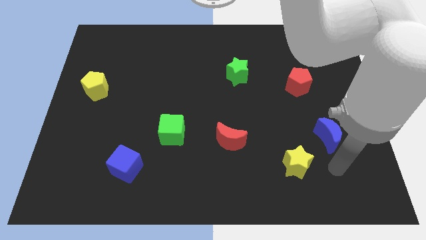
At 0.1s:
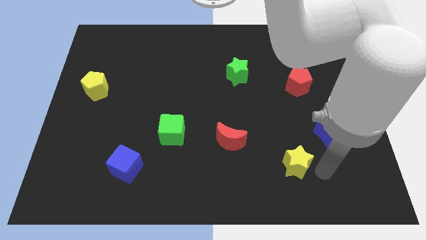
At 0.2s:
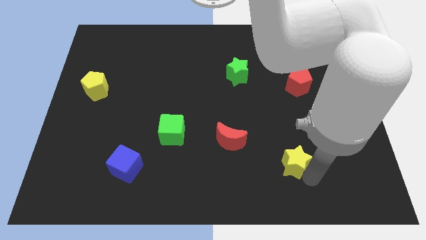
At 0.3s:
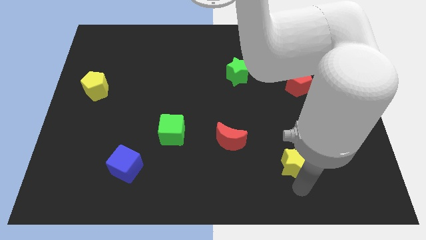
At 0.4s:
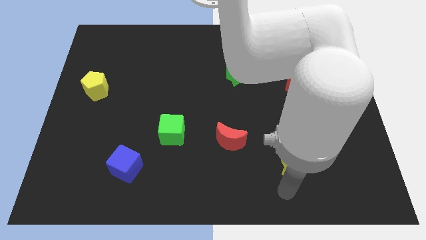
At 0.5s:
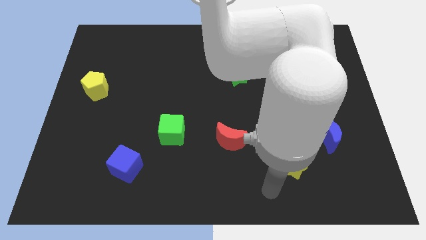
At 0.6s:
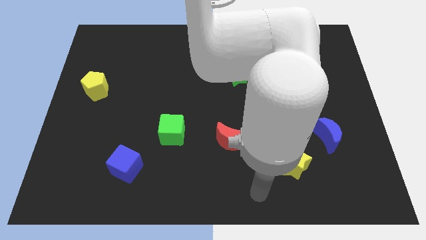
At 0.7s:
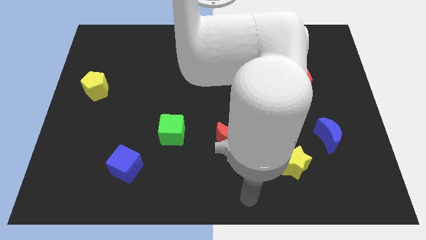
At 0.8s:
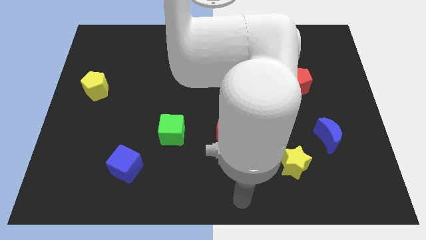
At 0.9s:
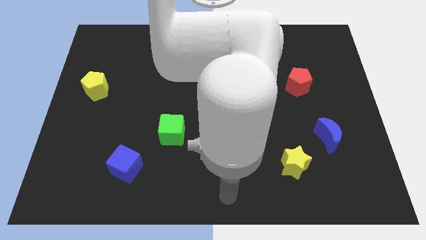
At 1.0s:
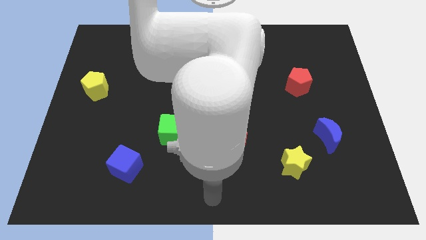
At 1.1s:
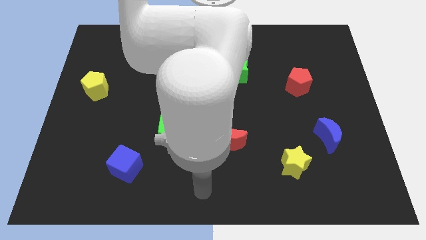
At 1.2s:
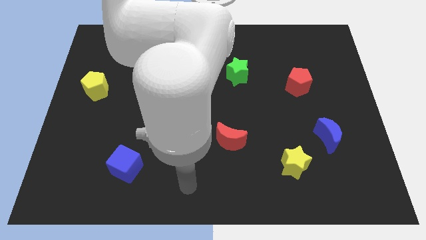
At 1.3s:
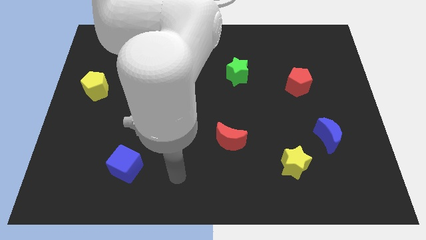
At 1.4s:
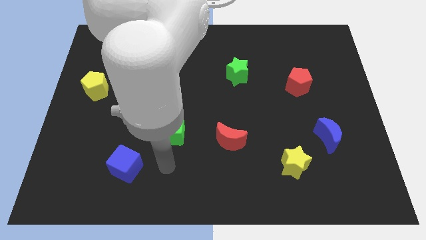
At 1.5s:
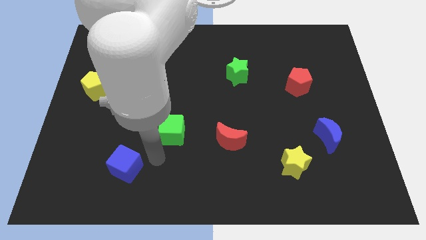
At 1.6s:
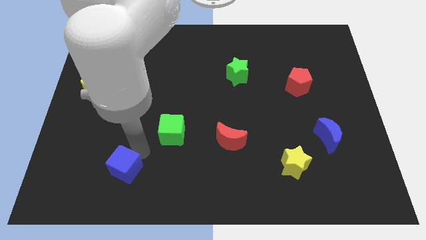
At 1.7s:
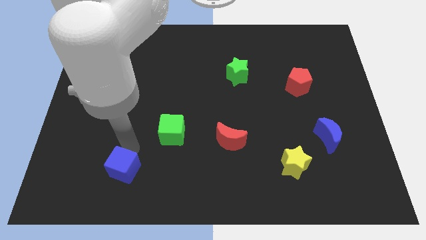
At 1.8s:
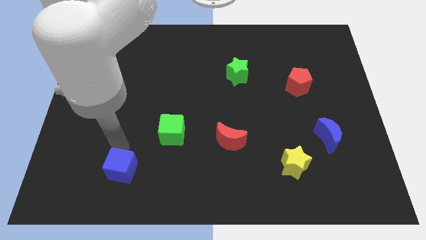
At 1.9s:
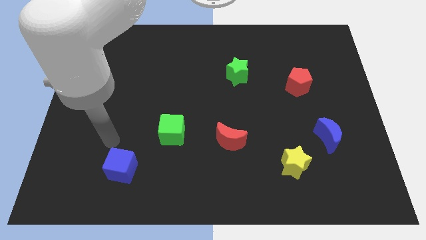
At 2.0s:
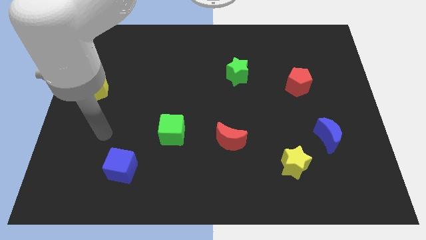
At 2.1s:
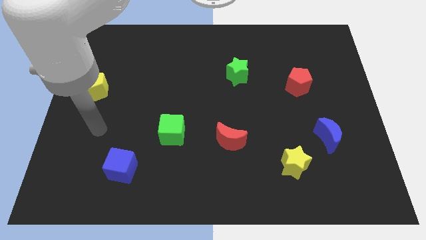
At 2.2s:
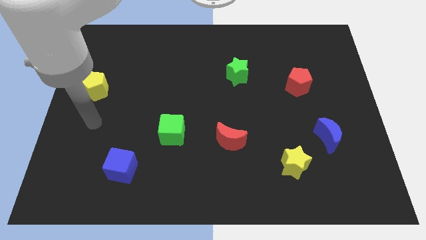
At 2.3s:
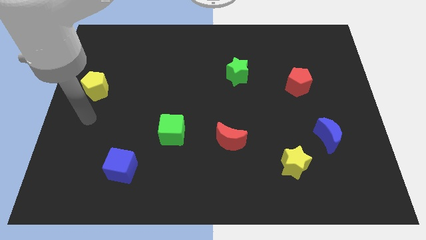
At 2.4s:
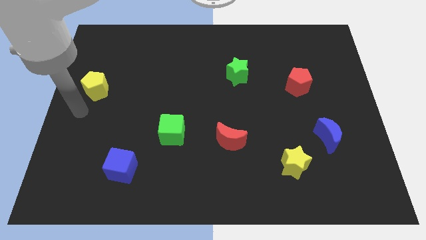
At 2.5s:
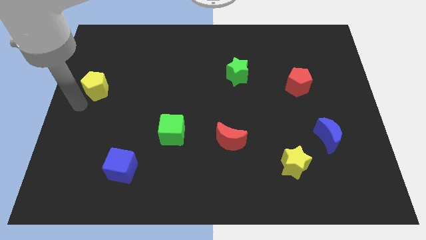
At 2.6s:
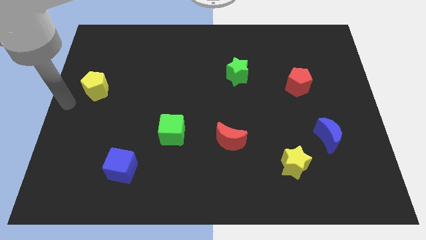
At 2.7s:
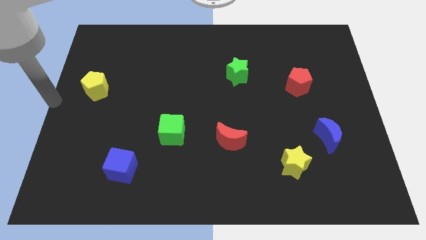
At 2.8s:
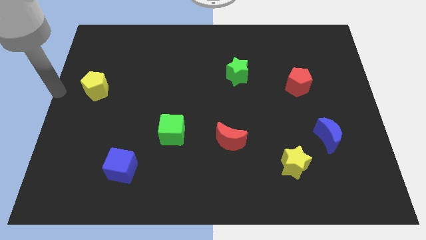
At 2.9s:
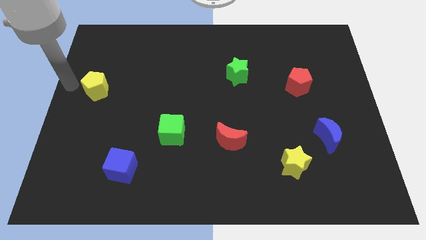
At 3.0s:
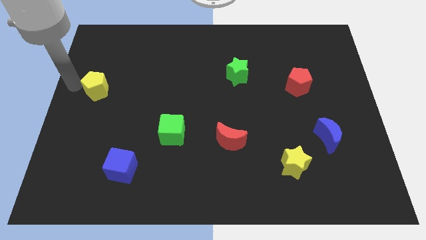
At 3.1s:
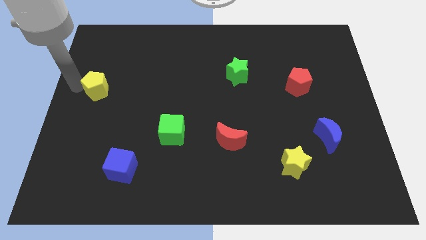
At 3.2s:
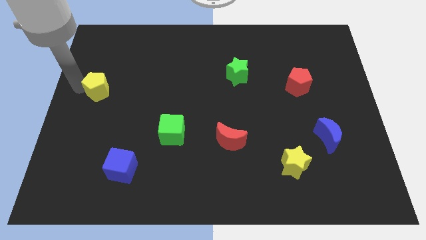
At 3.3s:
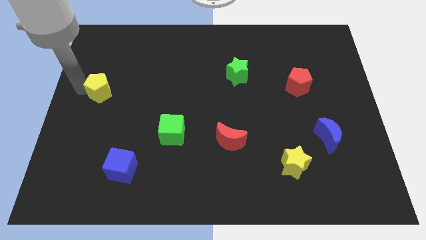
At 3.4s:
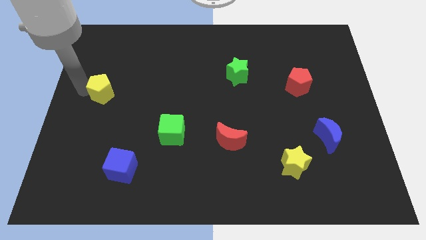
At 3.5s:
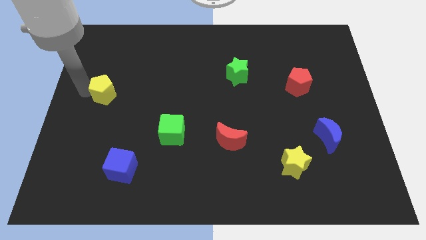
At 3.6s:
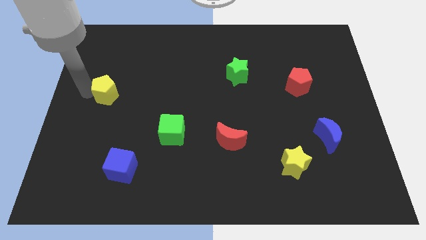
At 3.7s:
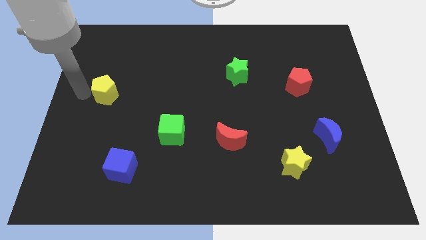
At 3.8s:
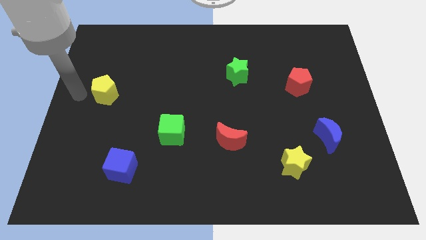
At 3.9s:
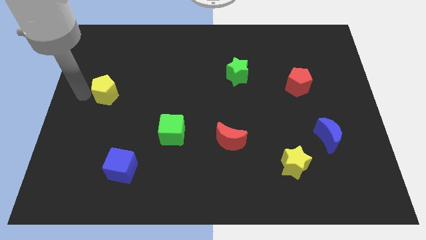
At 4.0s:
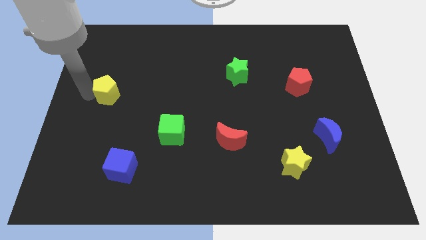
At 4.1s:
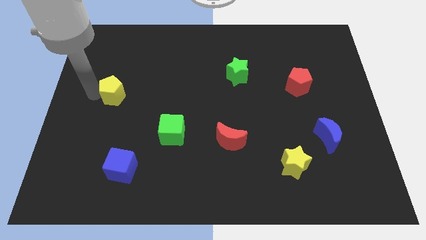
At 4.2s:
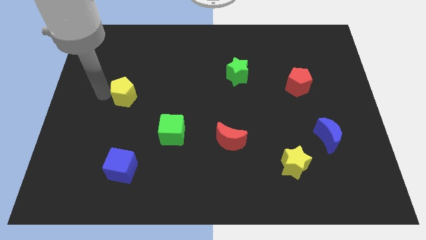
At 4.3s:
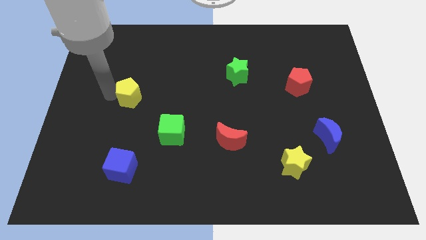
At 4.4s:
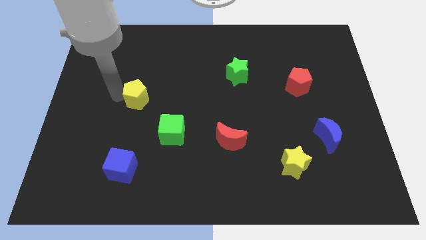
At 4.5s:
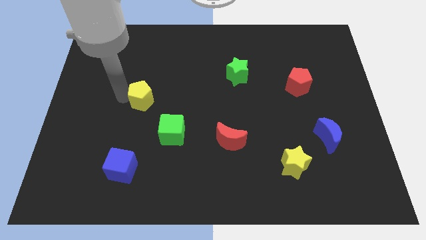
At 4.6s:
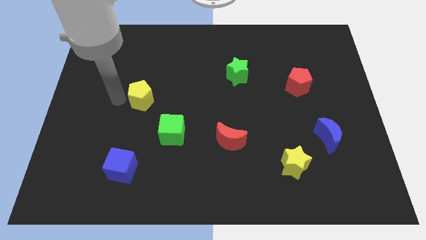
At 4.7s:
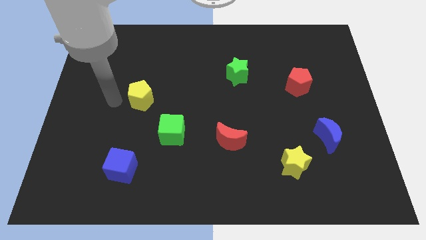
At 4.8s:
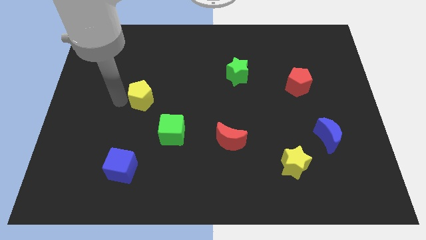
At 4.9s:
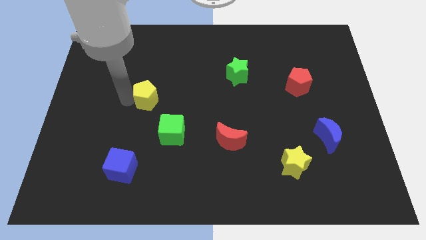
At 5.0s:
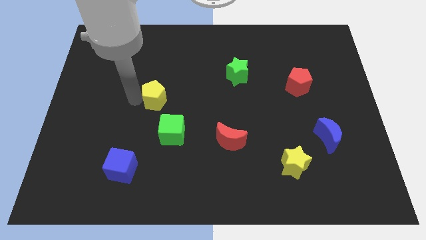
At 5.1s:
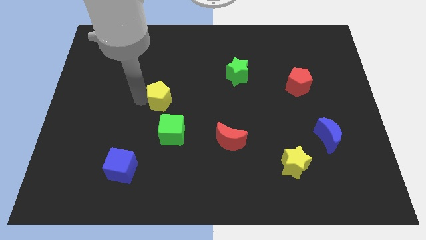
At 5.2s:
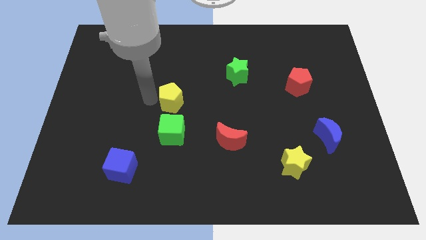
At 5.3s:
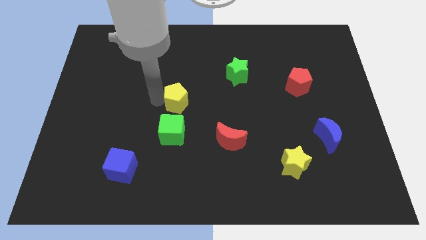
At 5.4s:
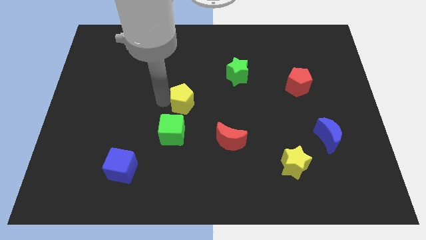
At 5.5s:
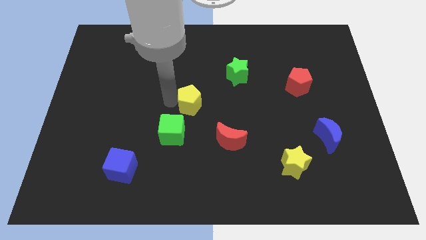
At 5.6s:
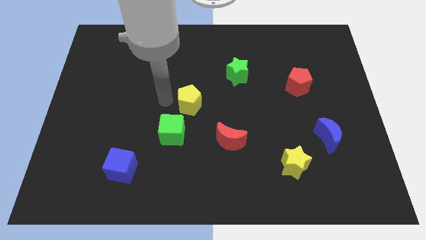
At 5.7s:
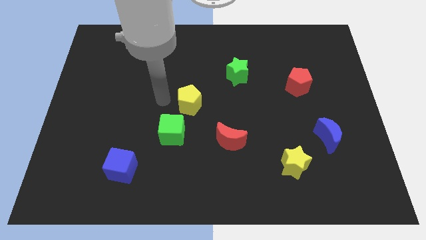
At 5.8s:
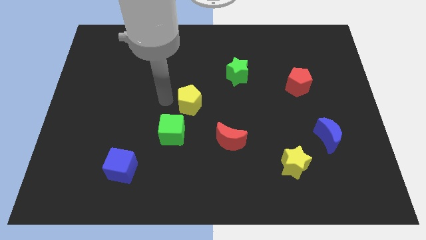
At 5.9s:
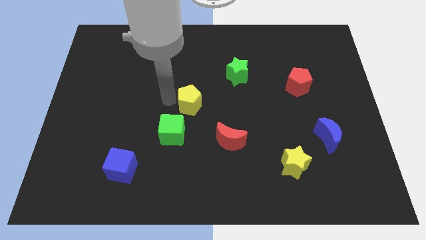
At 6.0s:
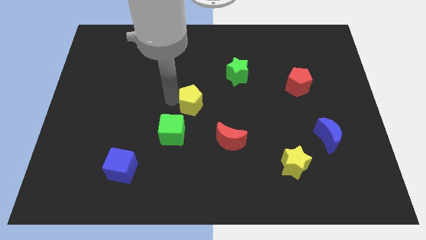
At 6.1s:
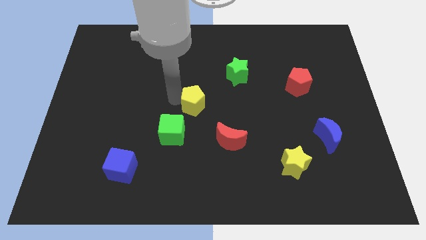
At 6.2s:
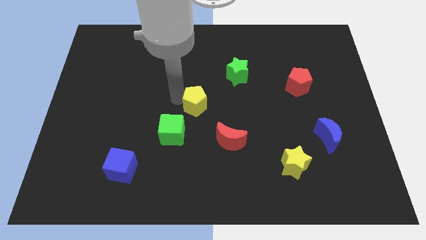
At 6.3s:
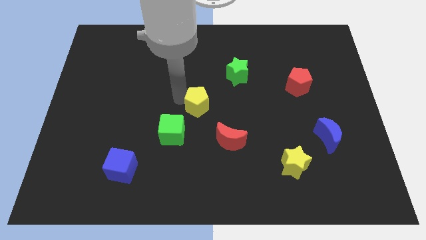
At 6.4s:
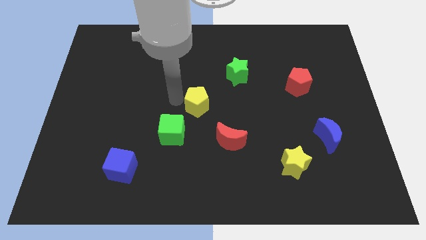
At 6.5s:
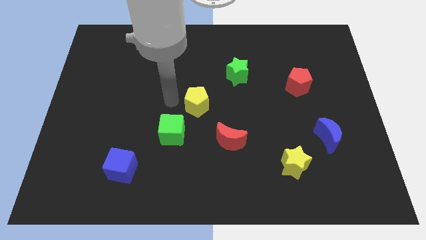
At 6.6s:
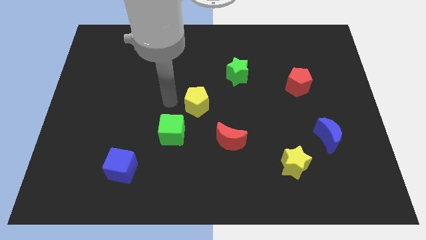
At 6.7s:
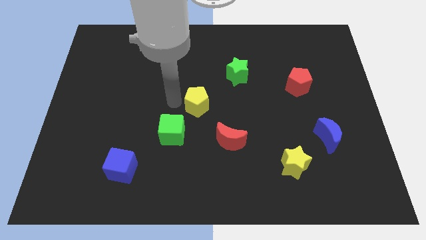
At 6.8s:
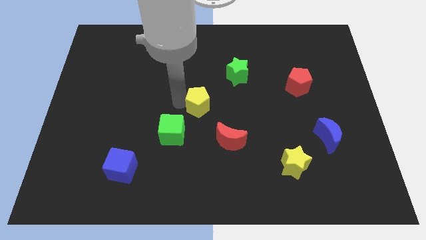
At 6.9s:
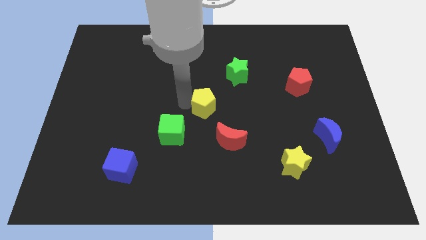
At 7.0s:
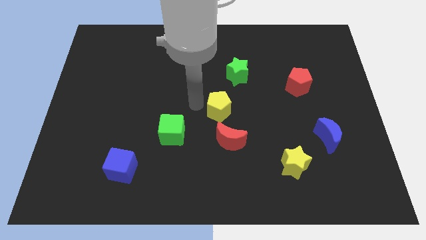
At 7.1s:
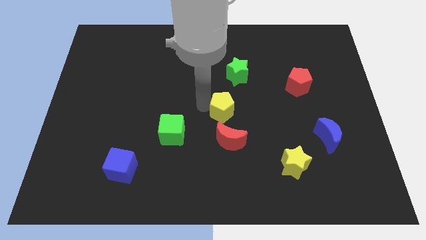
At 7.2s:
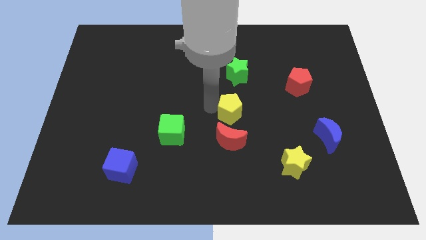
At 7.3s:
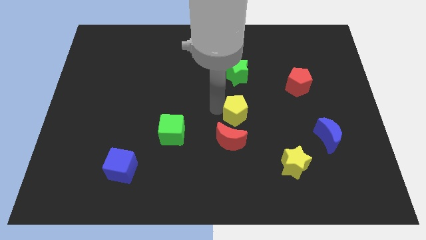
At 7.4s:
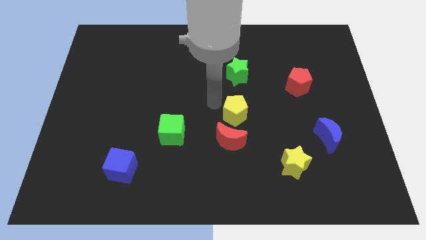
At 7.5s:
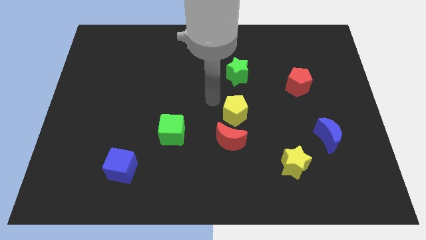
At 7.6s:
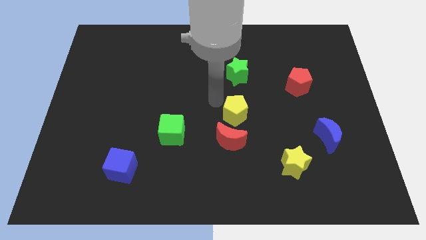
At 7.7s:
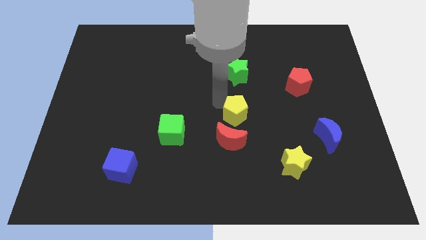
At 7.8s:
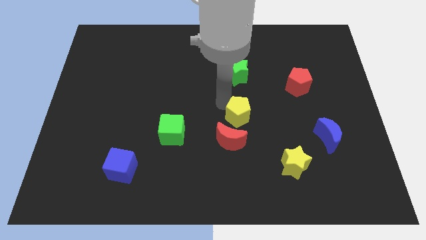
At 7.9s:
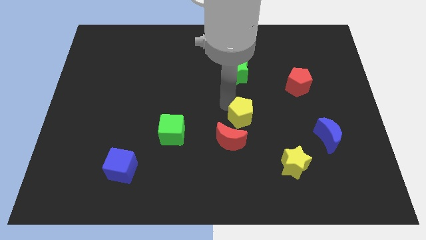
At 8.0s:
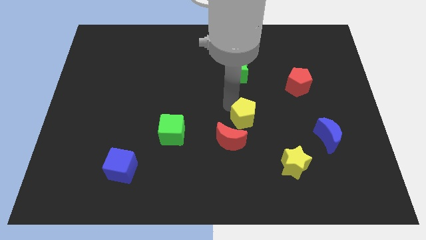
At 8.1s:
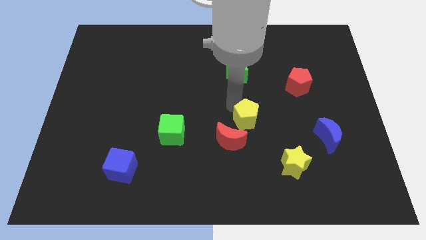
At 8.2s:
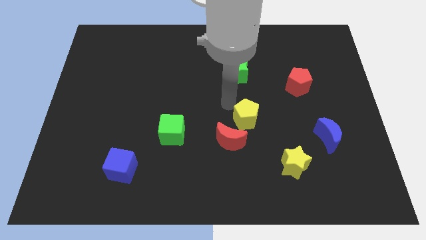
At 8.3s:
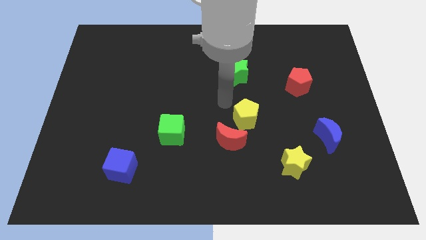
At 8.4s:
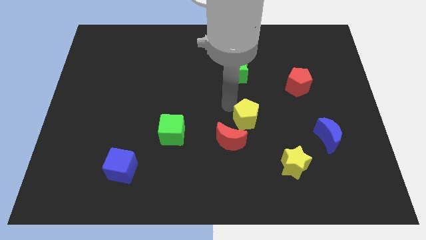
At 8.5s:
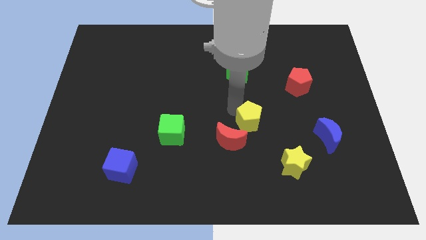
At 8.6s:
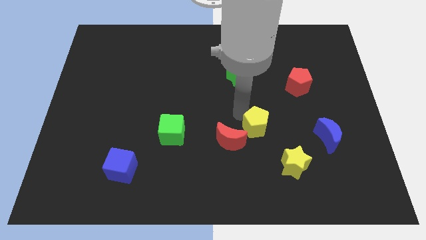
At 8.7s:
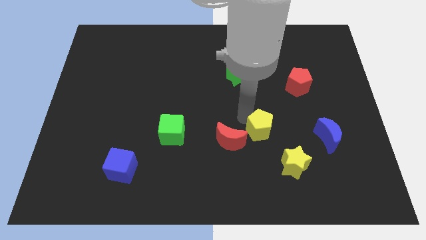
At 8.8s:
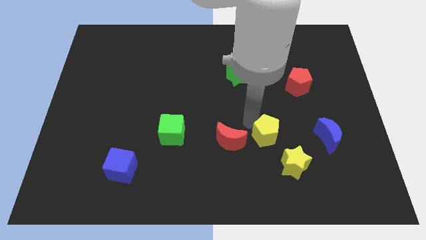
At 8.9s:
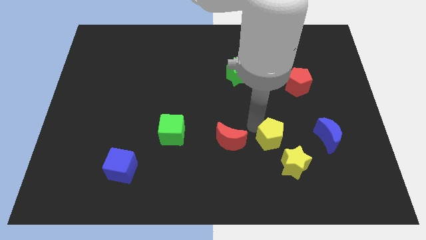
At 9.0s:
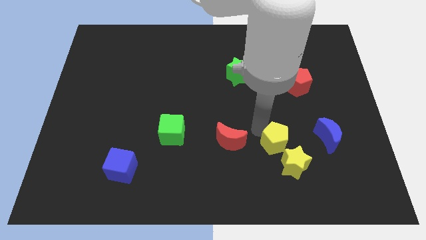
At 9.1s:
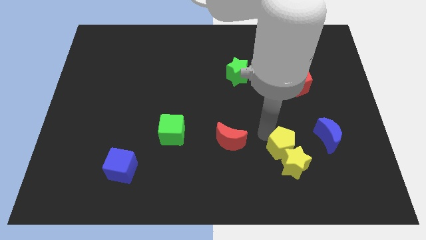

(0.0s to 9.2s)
push the yellow pentagon to the yellow star
